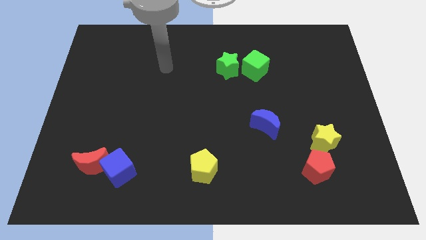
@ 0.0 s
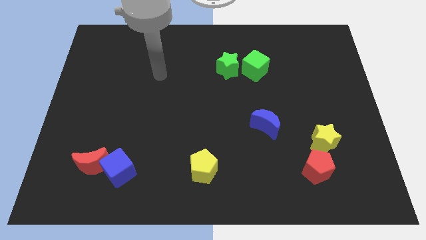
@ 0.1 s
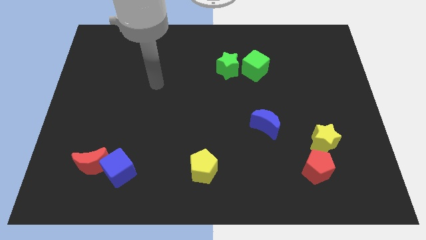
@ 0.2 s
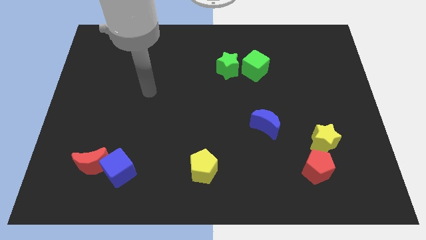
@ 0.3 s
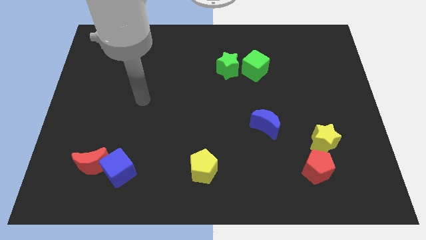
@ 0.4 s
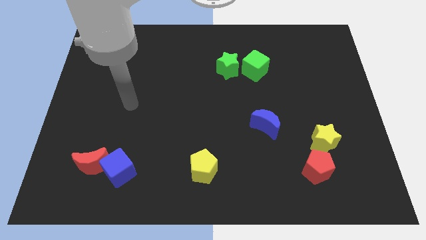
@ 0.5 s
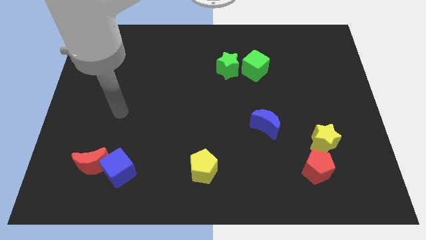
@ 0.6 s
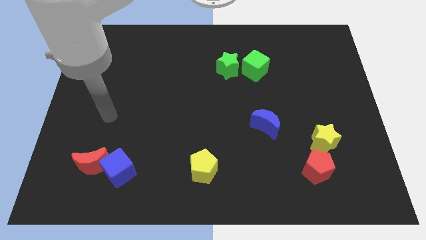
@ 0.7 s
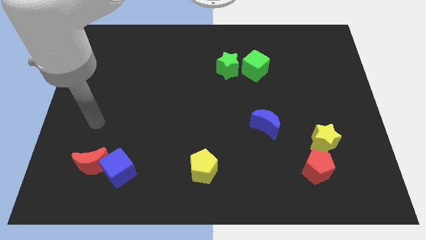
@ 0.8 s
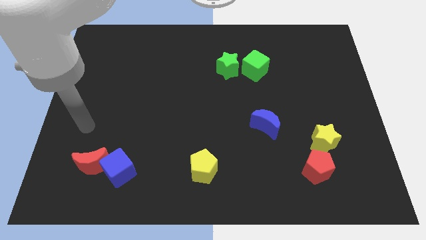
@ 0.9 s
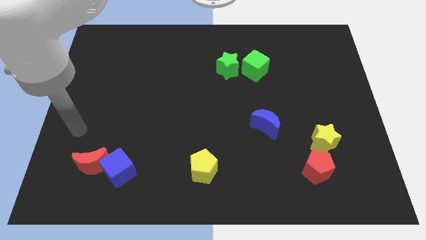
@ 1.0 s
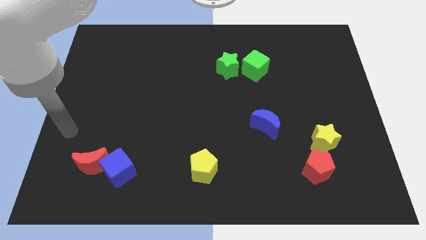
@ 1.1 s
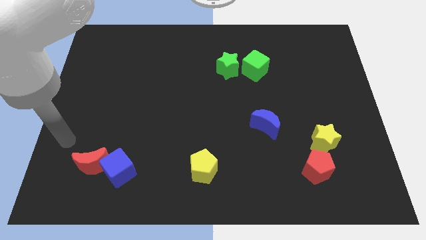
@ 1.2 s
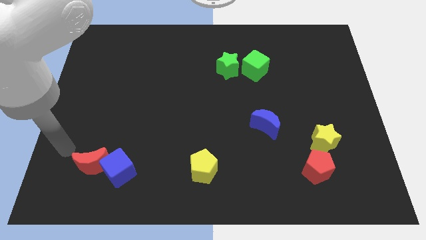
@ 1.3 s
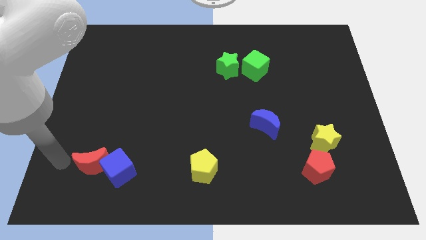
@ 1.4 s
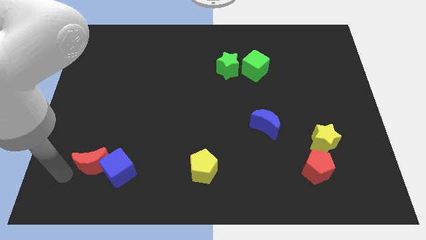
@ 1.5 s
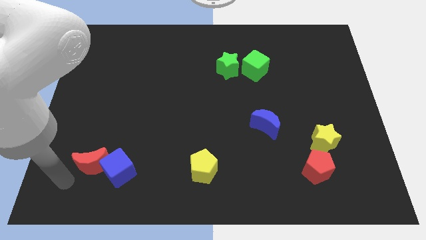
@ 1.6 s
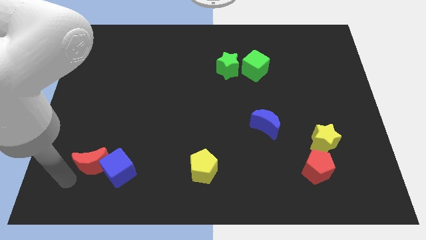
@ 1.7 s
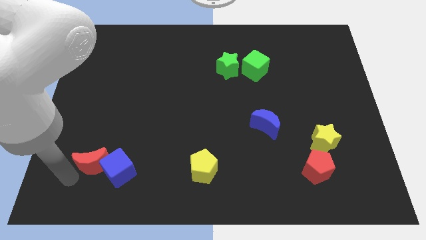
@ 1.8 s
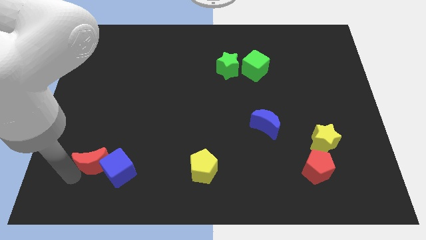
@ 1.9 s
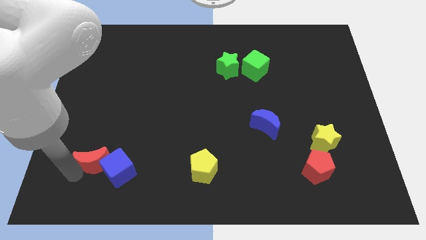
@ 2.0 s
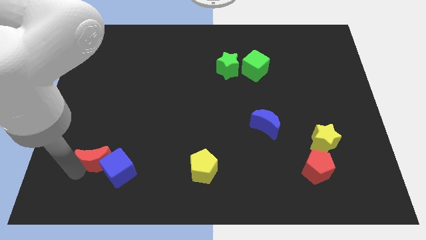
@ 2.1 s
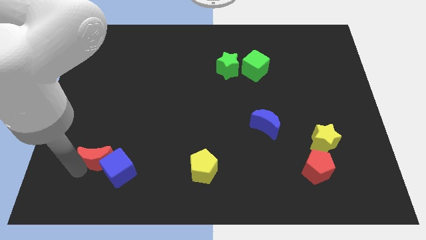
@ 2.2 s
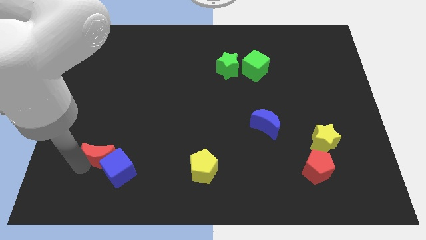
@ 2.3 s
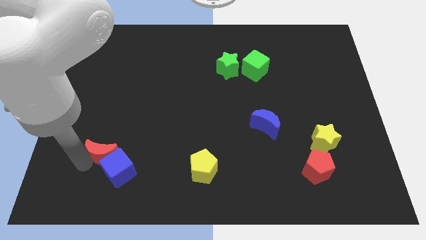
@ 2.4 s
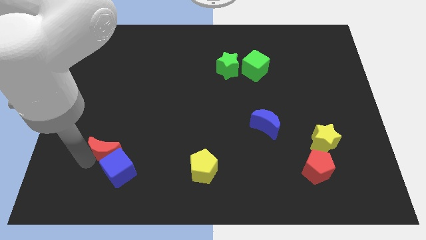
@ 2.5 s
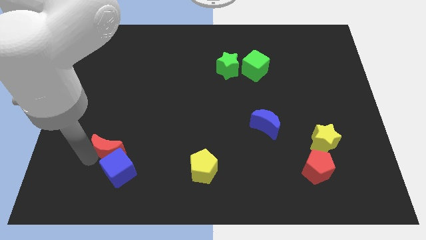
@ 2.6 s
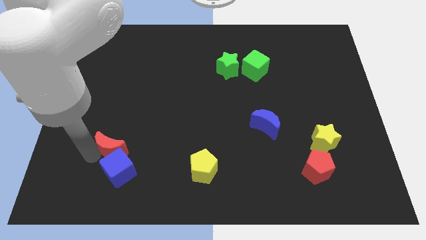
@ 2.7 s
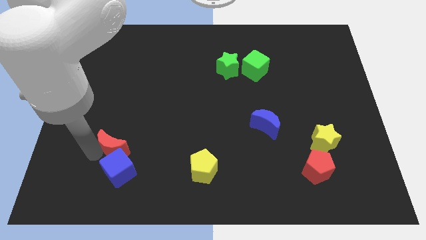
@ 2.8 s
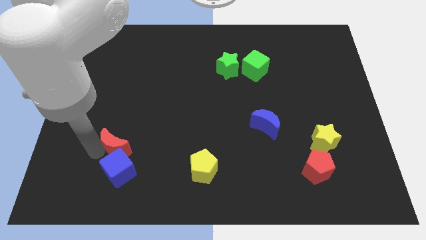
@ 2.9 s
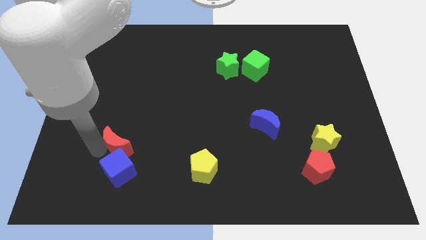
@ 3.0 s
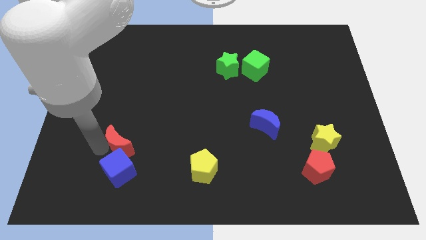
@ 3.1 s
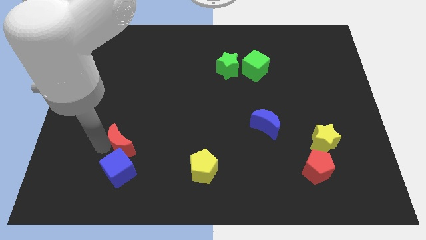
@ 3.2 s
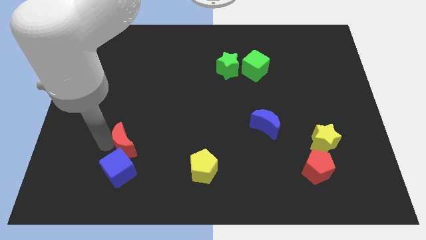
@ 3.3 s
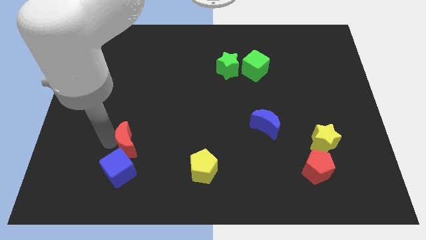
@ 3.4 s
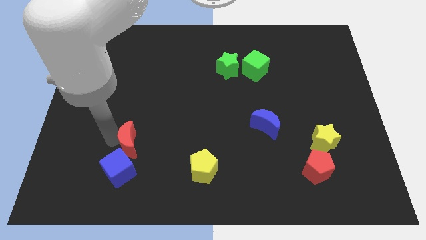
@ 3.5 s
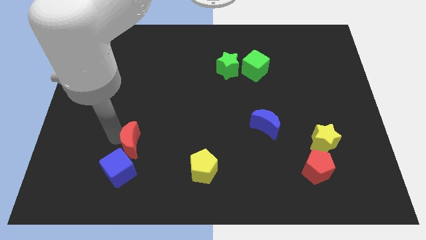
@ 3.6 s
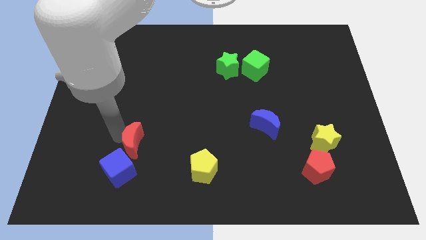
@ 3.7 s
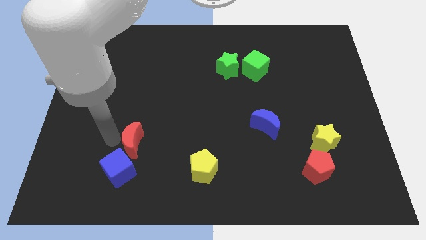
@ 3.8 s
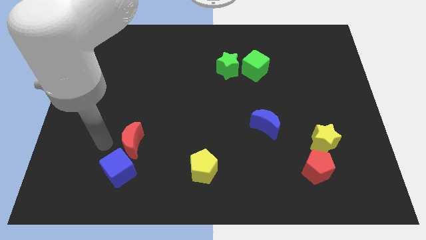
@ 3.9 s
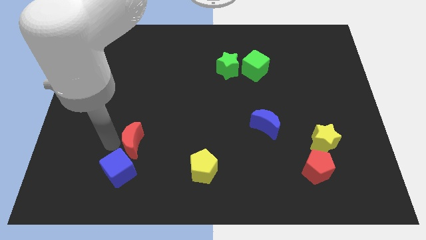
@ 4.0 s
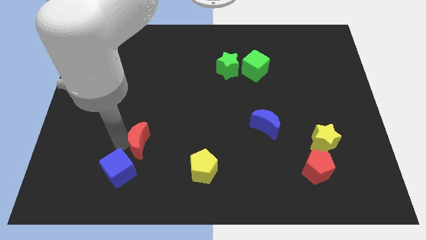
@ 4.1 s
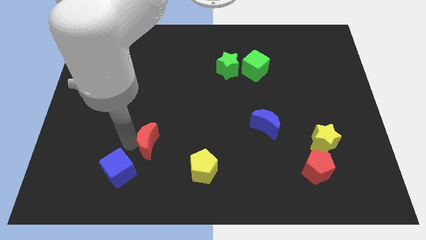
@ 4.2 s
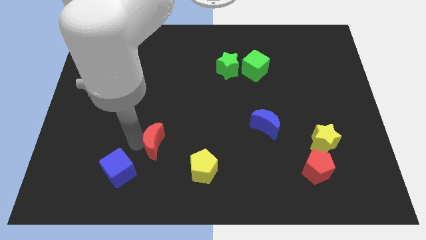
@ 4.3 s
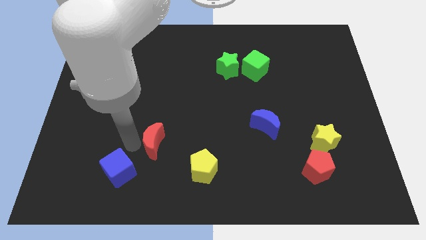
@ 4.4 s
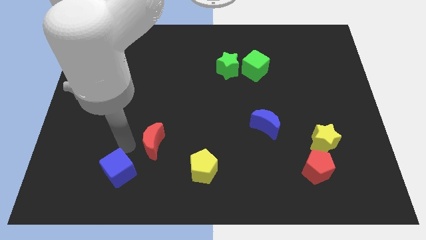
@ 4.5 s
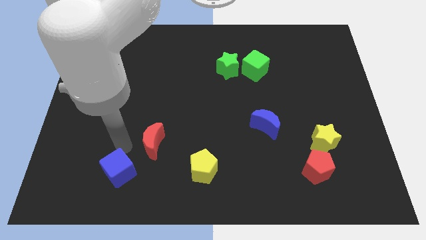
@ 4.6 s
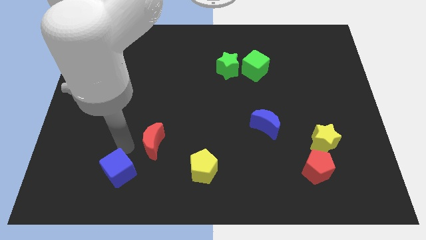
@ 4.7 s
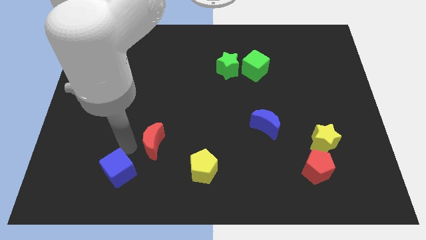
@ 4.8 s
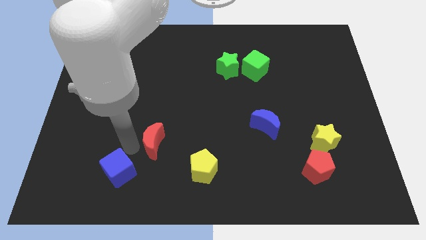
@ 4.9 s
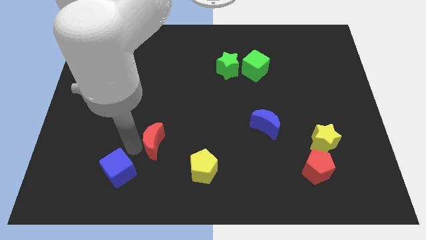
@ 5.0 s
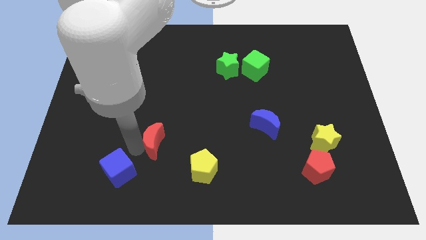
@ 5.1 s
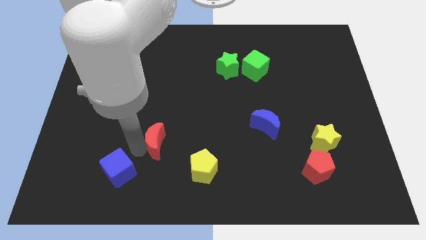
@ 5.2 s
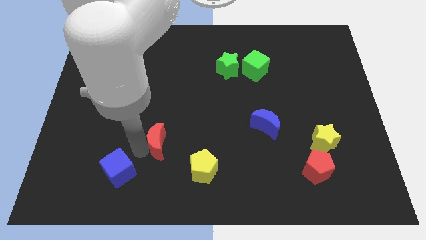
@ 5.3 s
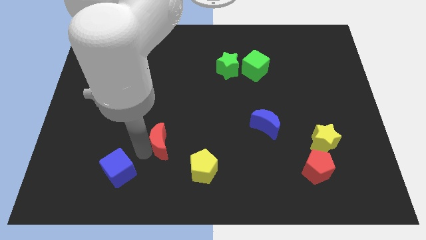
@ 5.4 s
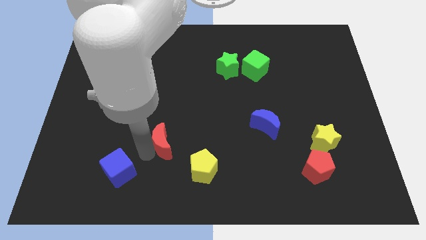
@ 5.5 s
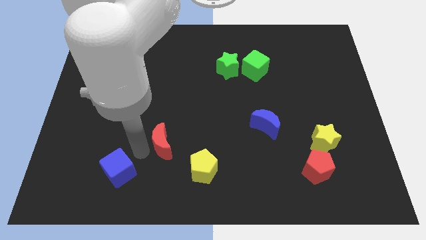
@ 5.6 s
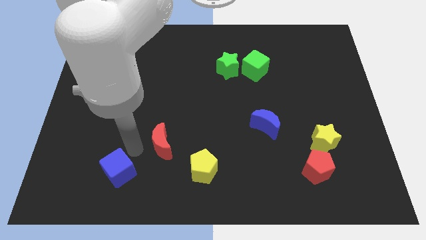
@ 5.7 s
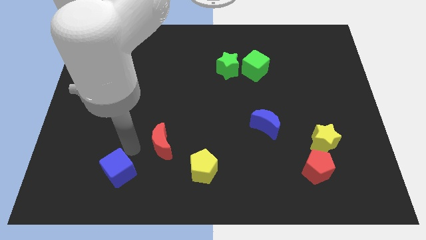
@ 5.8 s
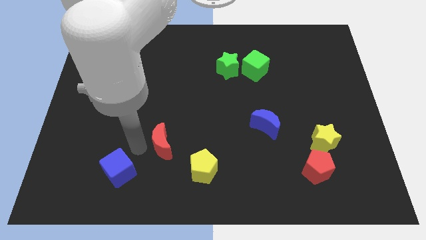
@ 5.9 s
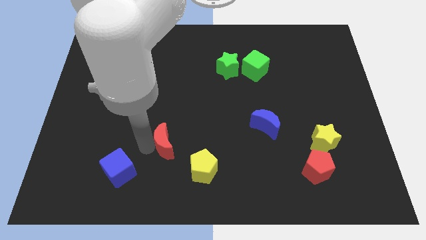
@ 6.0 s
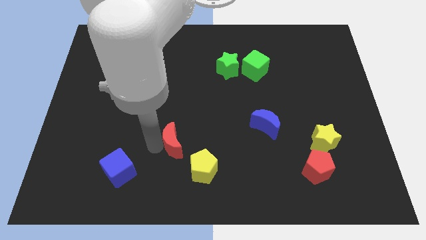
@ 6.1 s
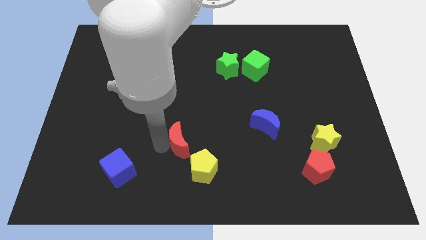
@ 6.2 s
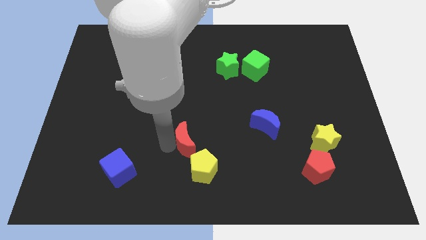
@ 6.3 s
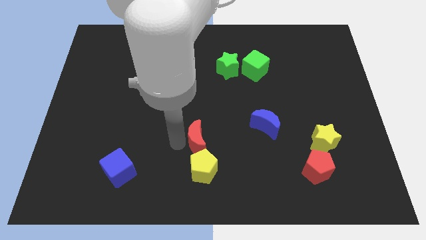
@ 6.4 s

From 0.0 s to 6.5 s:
slide the red moon to the right

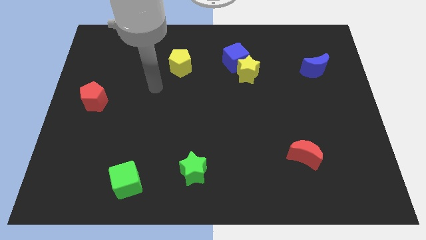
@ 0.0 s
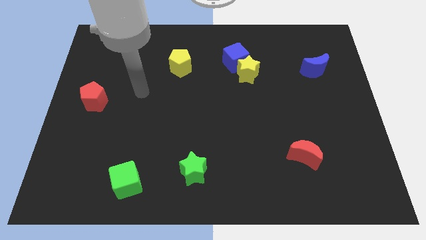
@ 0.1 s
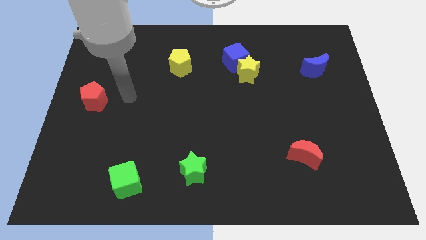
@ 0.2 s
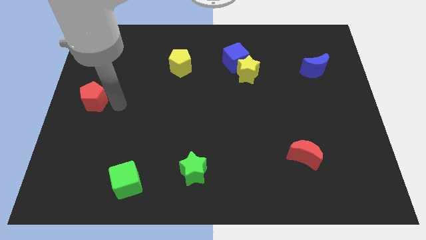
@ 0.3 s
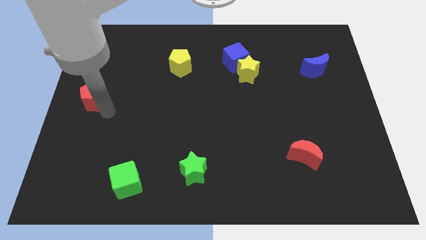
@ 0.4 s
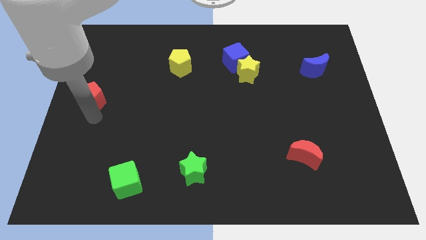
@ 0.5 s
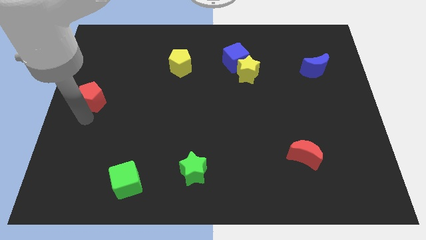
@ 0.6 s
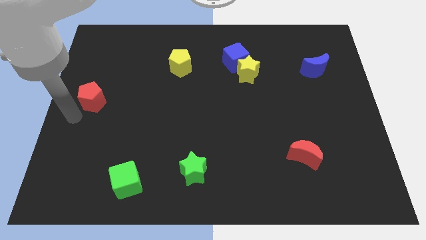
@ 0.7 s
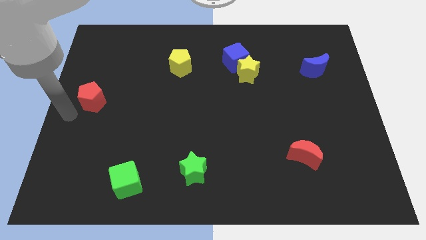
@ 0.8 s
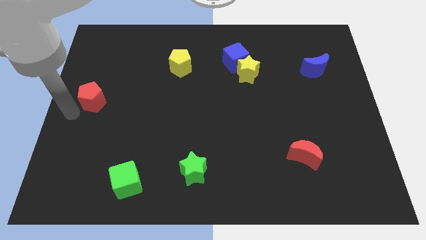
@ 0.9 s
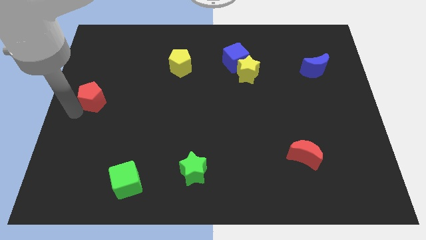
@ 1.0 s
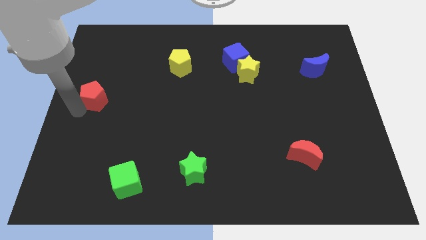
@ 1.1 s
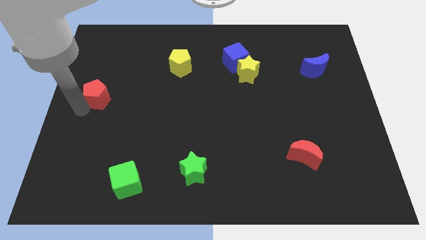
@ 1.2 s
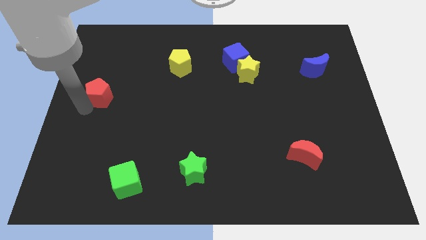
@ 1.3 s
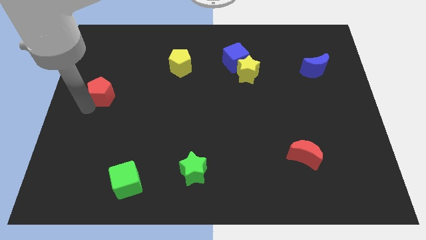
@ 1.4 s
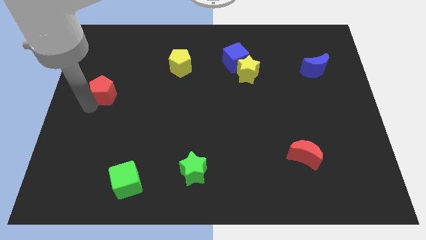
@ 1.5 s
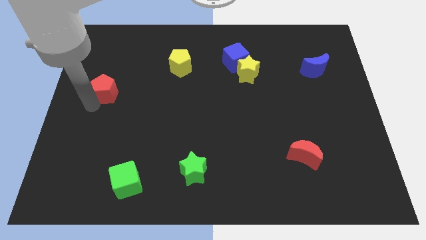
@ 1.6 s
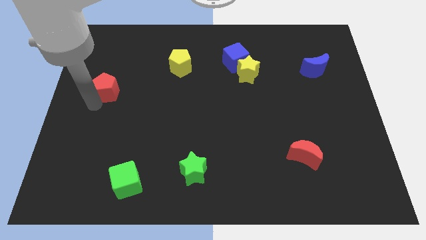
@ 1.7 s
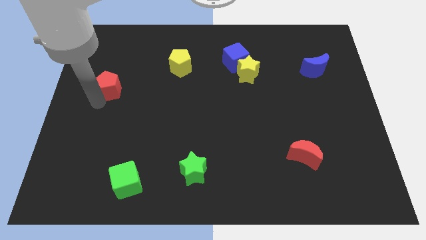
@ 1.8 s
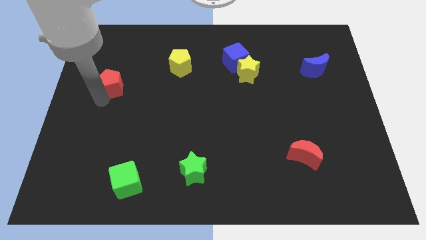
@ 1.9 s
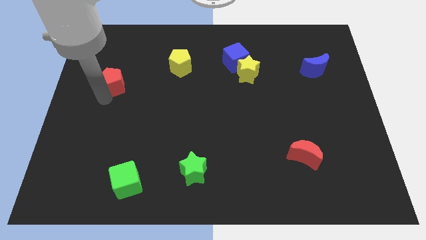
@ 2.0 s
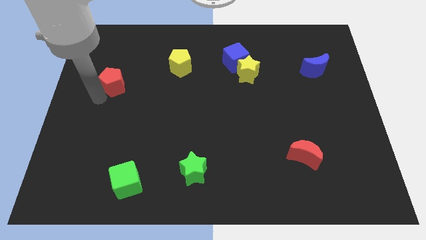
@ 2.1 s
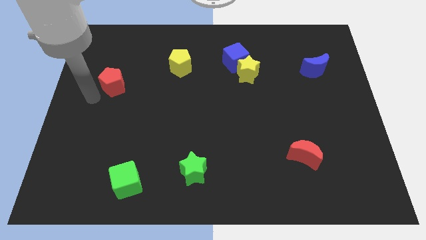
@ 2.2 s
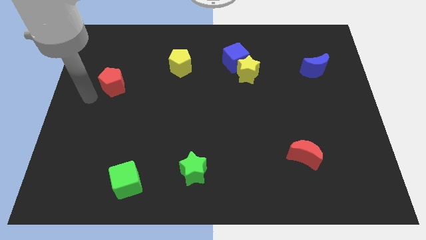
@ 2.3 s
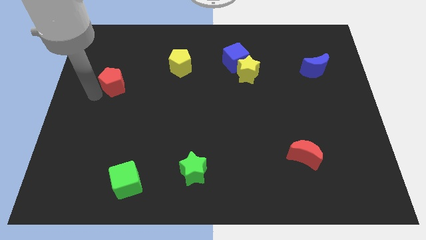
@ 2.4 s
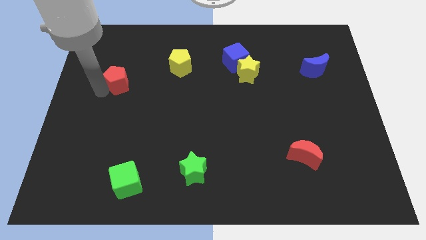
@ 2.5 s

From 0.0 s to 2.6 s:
slightly move the red pentagon diagonally up and right
